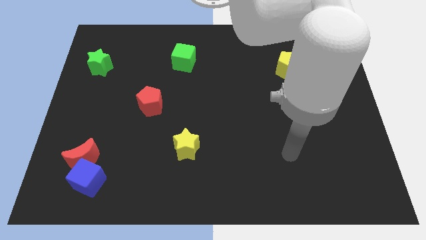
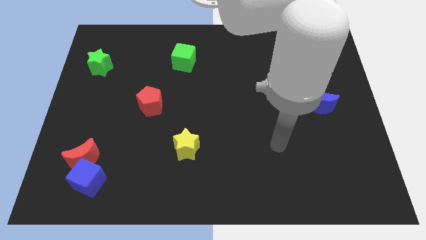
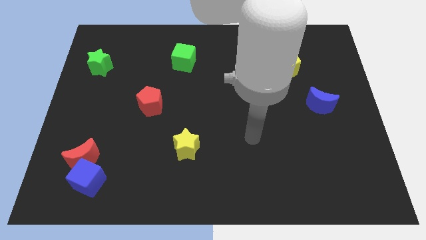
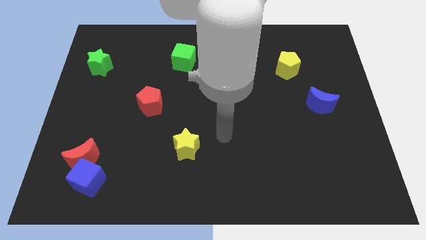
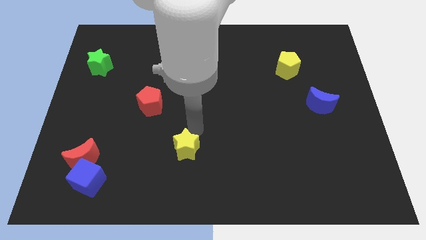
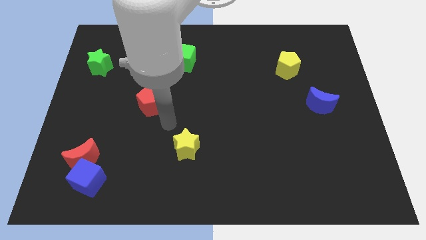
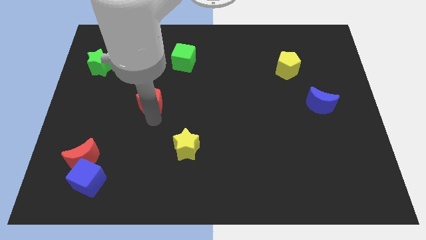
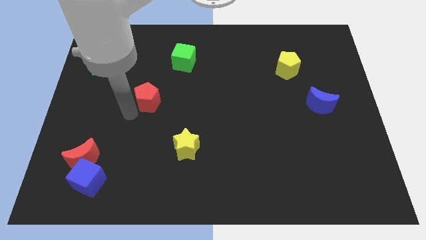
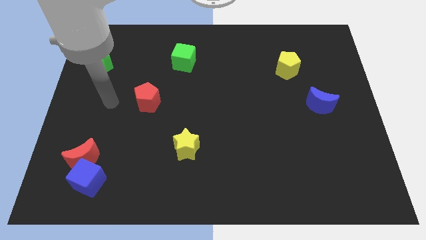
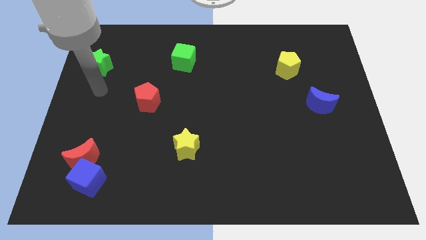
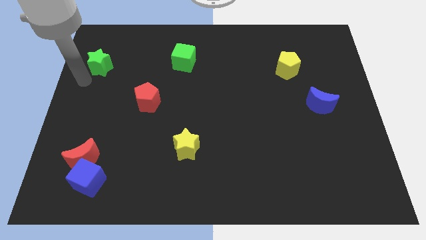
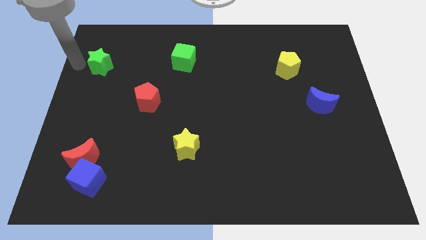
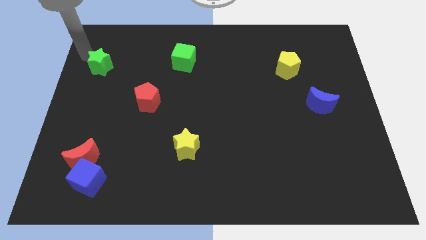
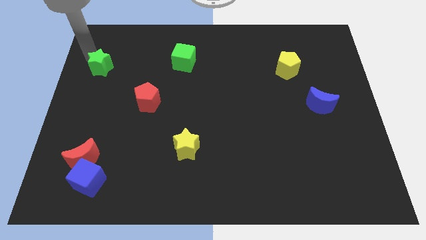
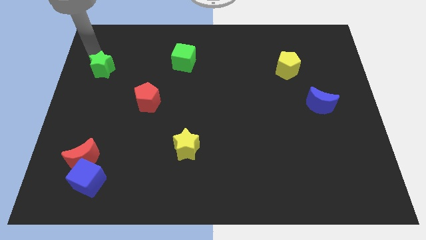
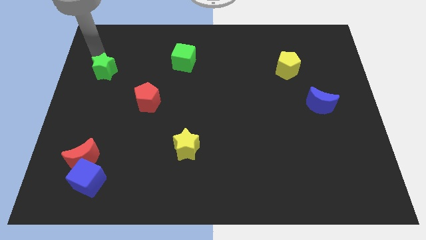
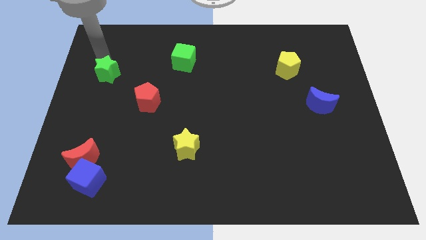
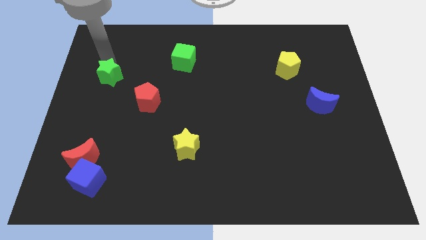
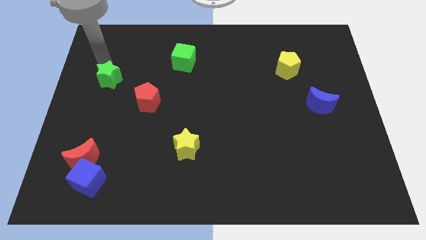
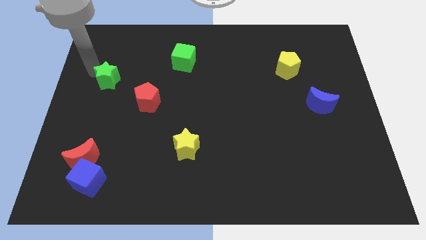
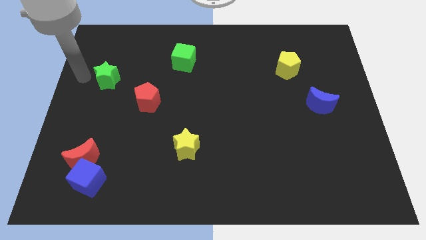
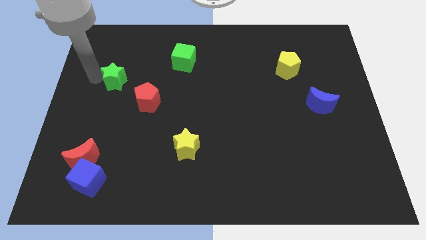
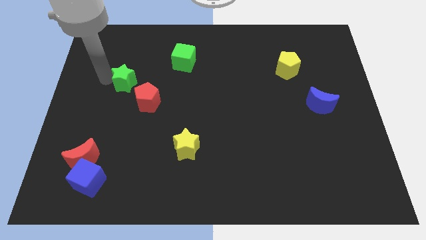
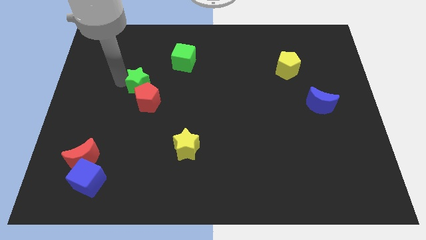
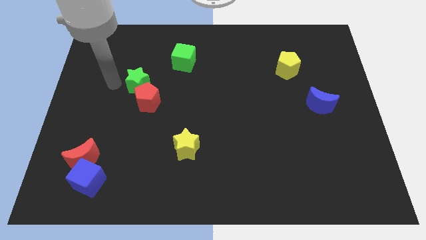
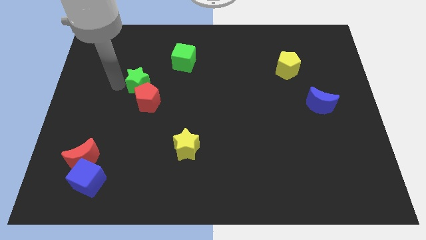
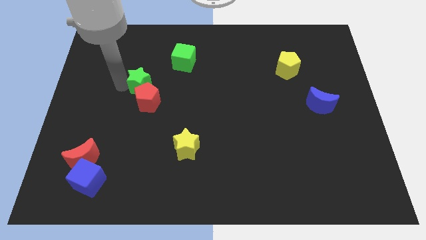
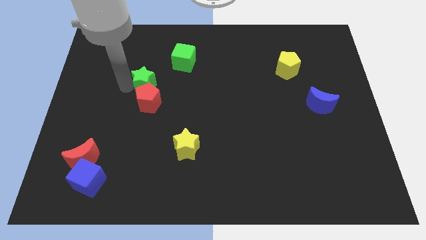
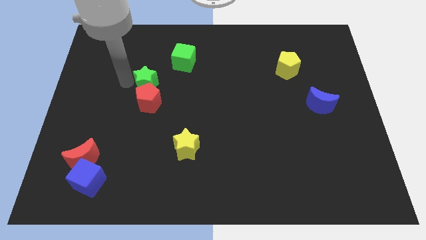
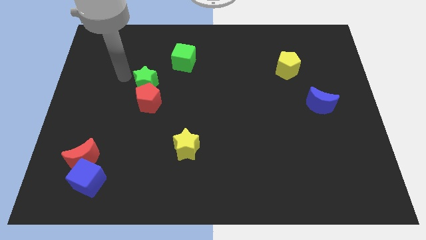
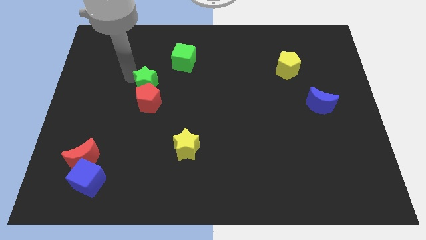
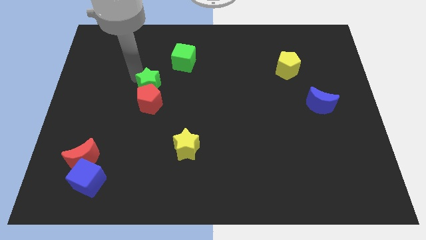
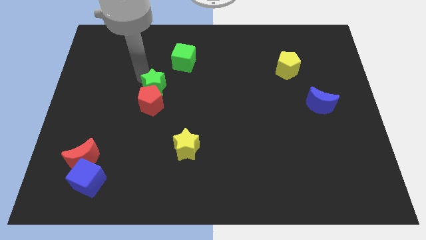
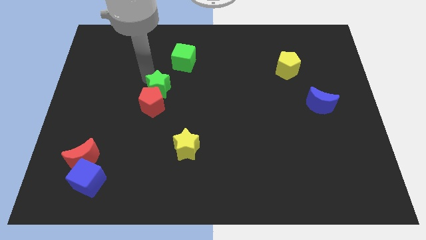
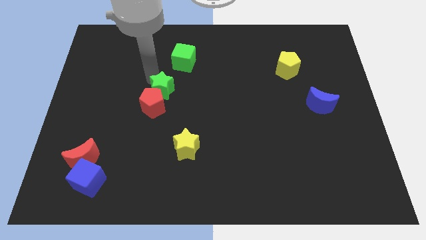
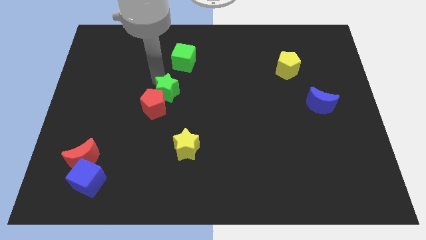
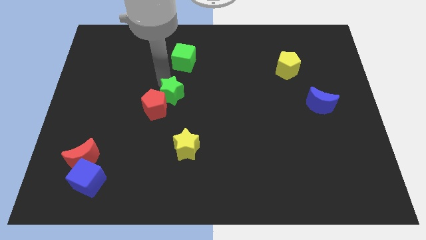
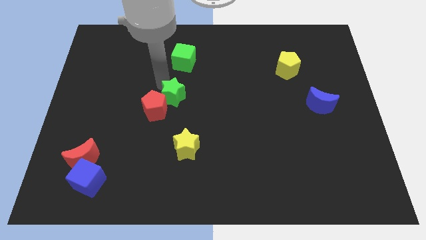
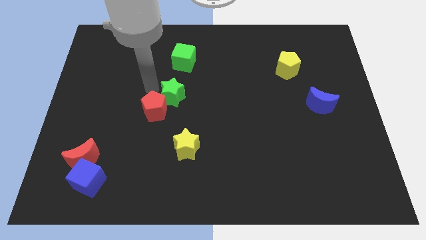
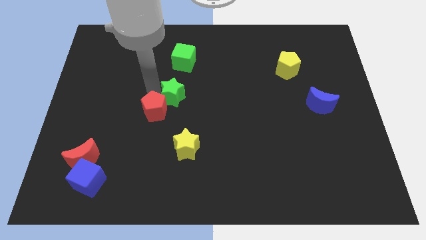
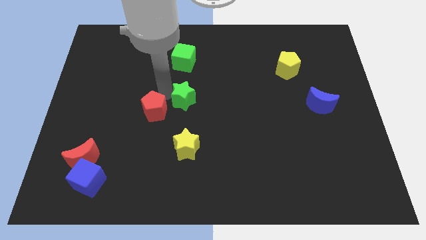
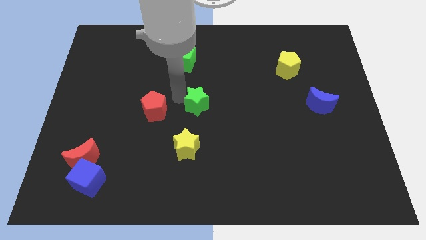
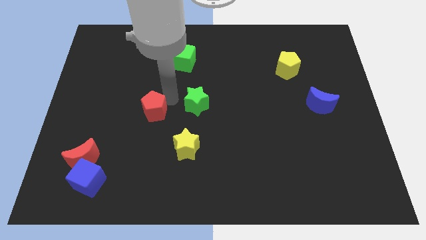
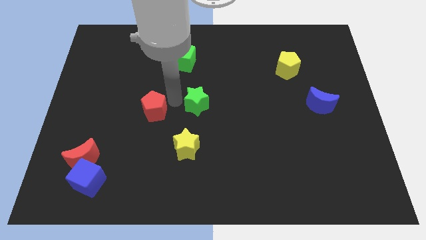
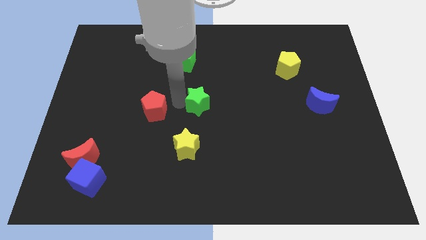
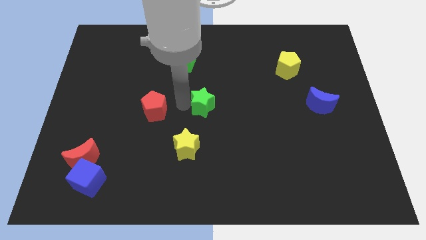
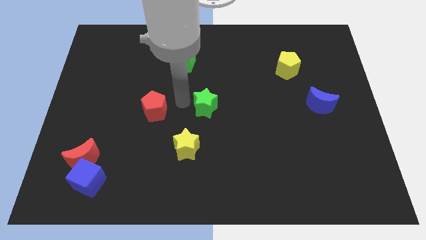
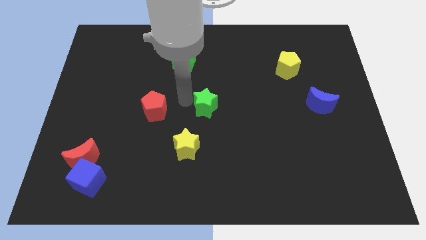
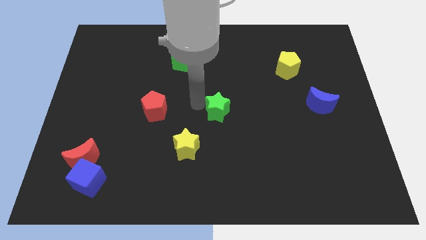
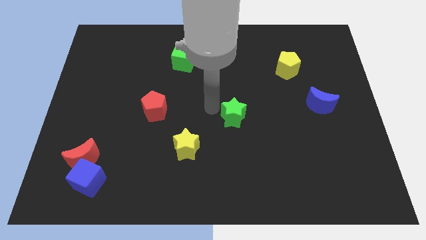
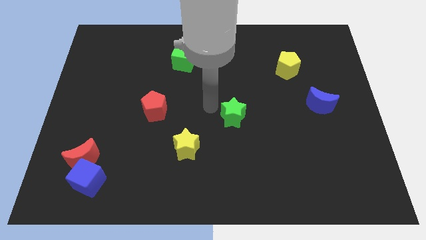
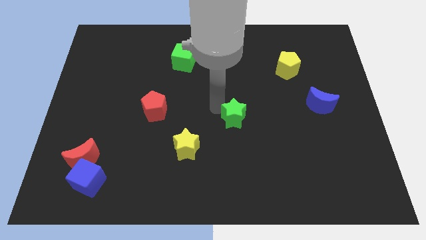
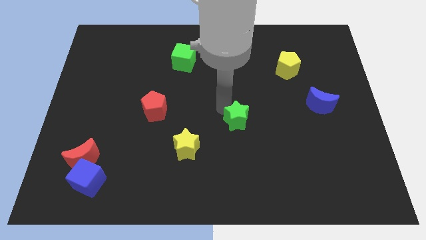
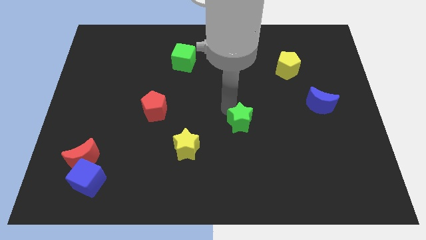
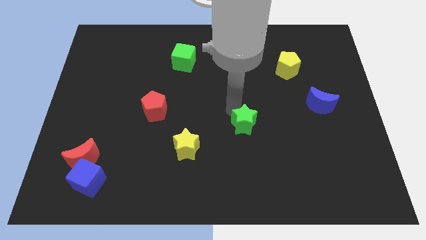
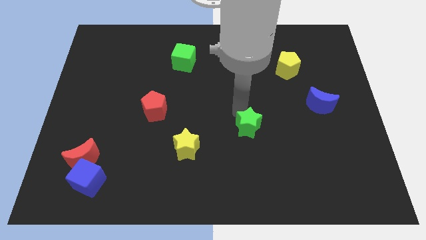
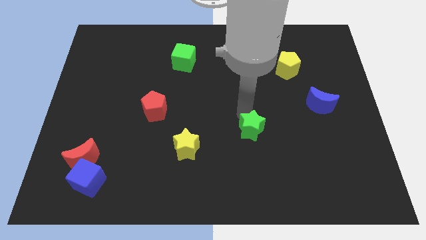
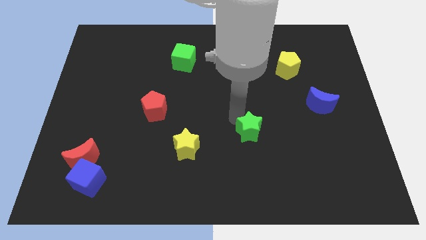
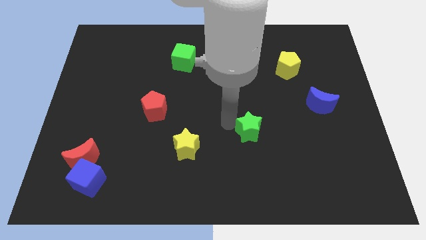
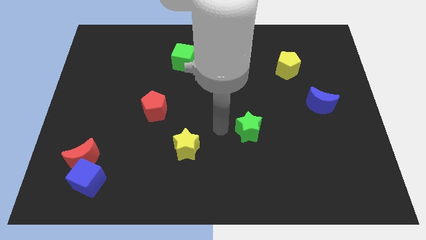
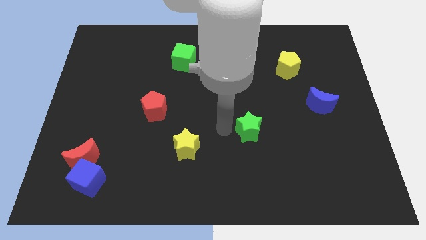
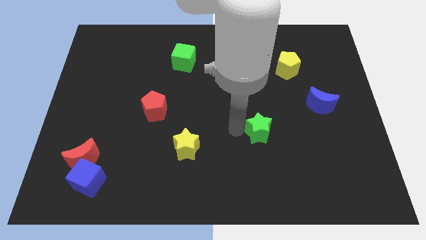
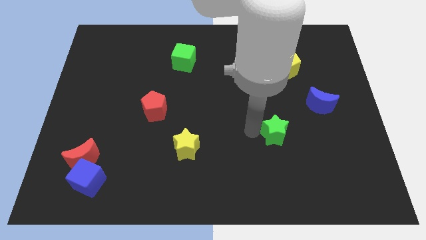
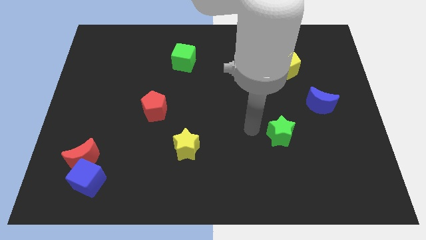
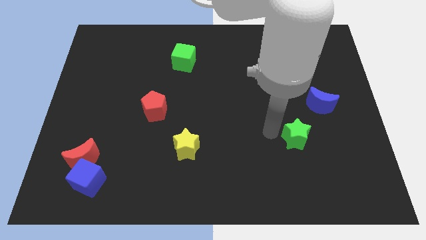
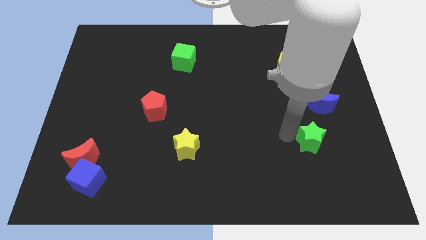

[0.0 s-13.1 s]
push the green star to the bottom of the blue moon

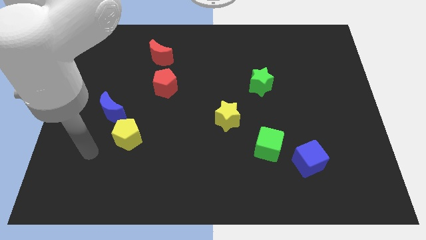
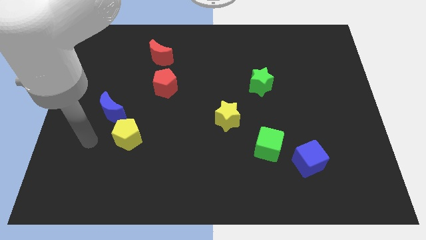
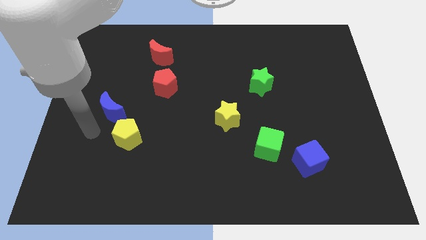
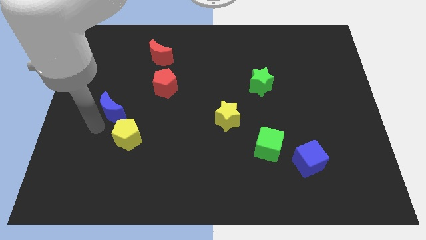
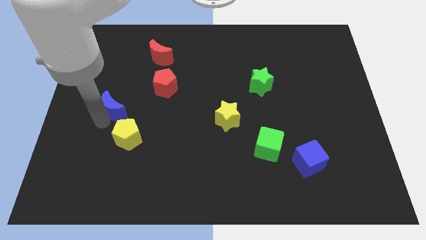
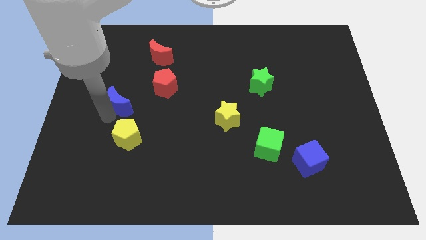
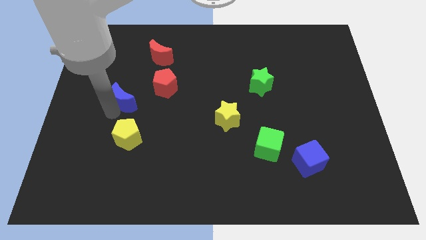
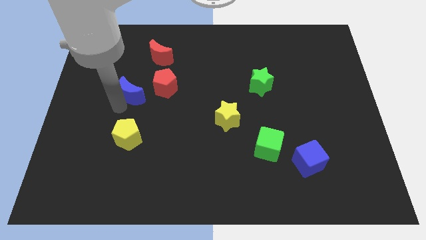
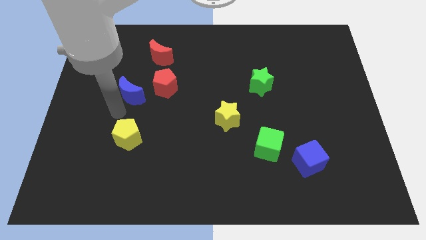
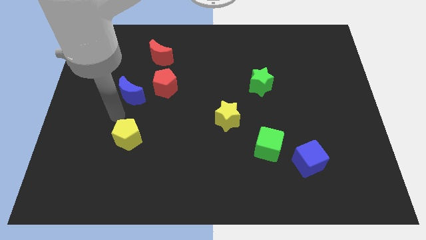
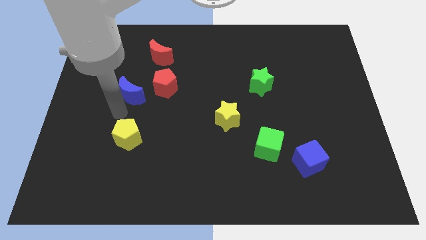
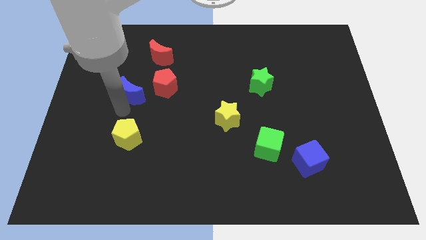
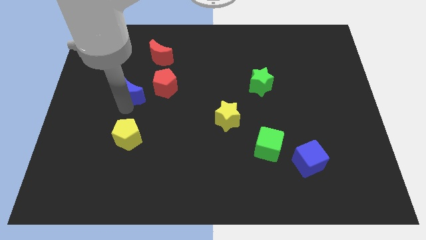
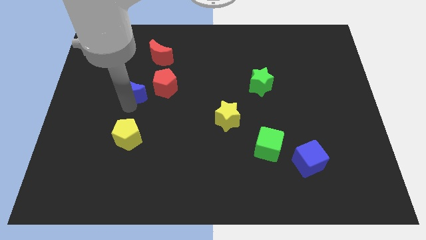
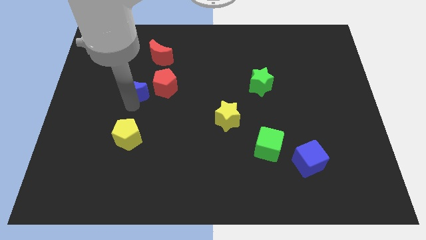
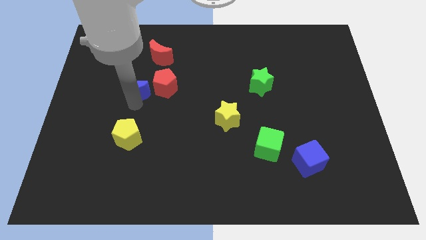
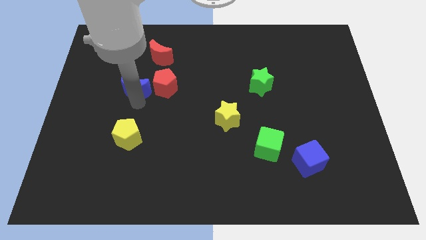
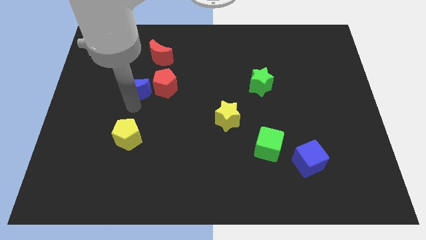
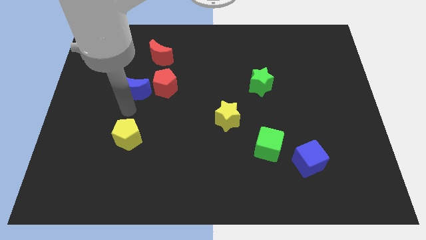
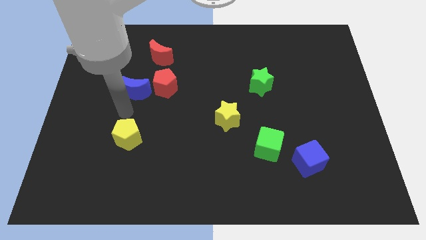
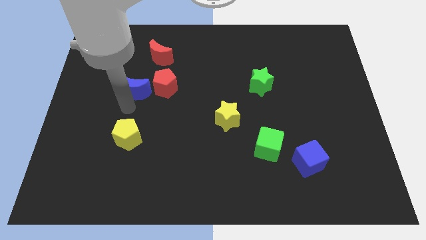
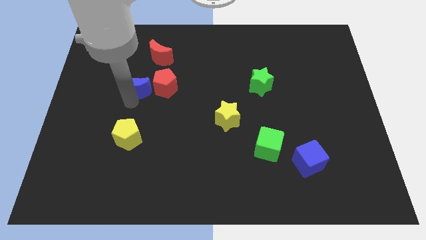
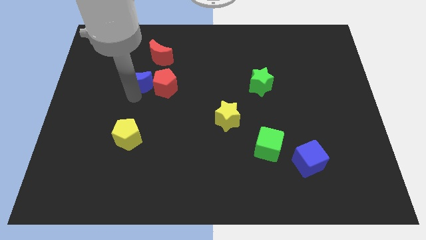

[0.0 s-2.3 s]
push the blue moon diagonally up and to the left of the red pentagon
